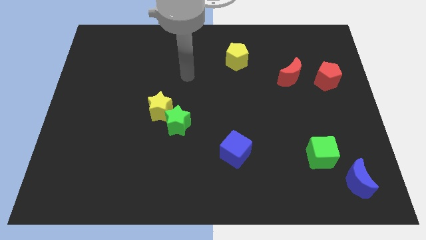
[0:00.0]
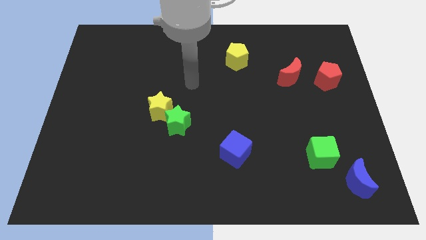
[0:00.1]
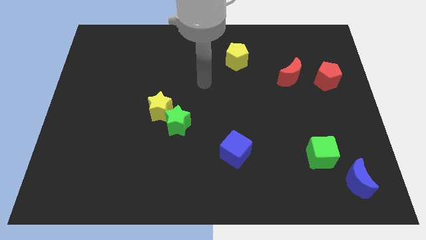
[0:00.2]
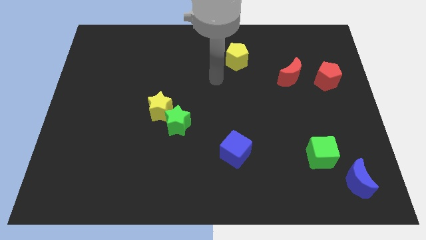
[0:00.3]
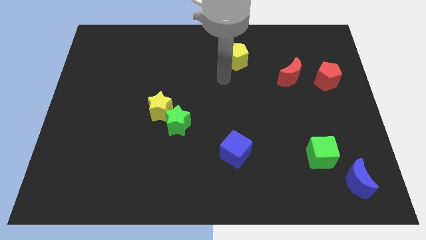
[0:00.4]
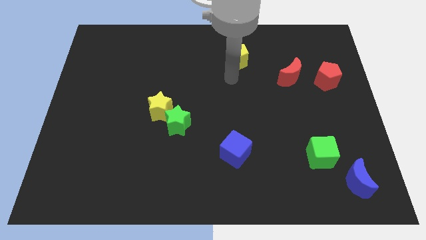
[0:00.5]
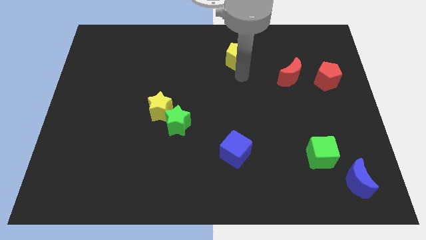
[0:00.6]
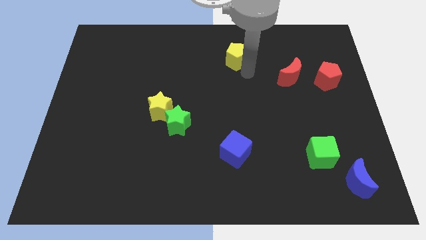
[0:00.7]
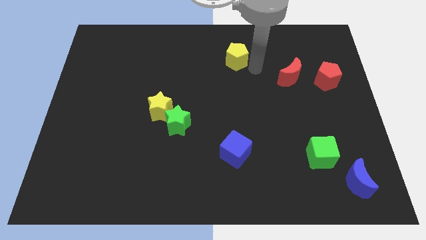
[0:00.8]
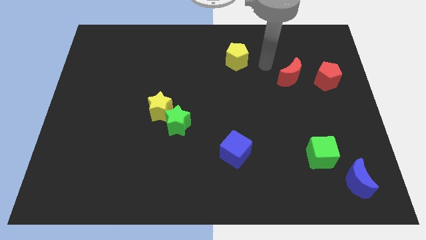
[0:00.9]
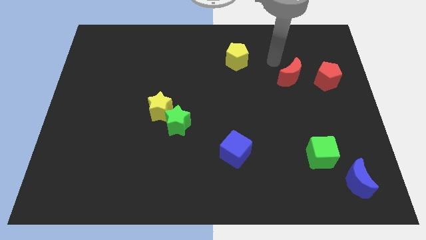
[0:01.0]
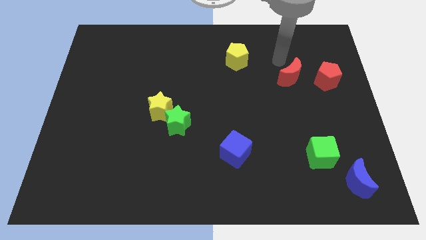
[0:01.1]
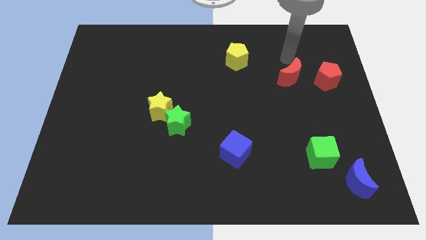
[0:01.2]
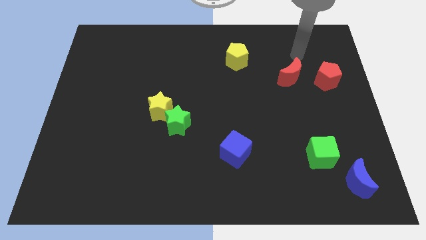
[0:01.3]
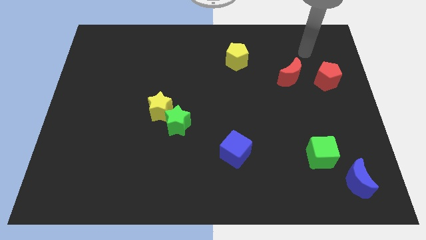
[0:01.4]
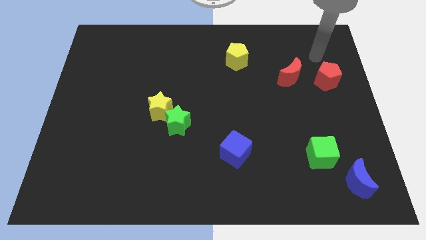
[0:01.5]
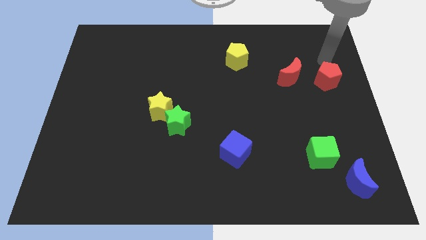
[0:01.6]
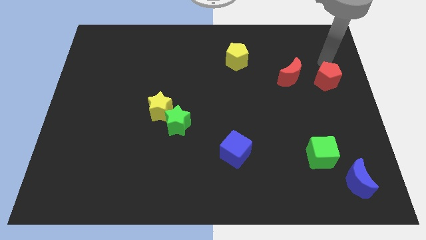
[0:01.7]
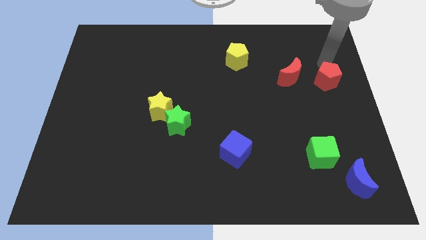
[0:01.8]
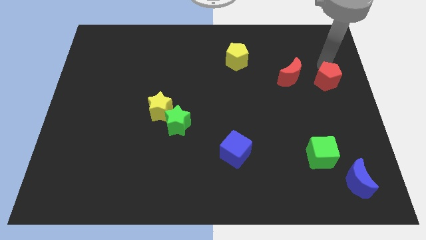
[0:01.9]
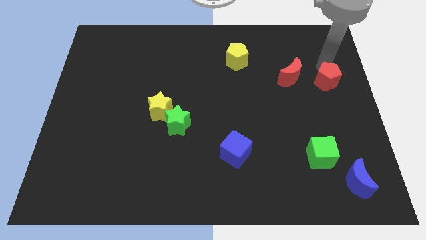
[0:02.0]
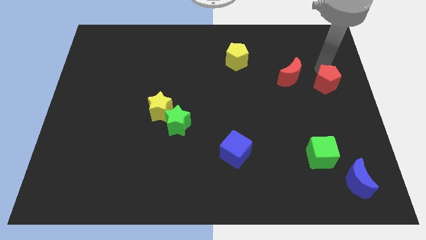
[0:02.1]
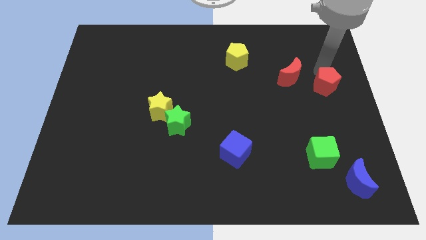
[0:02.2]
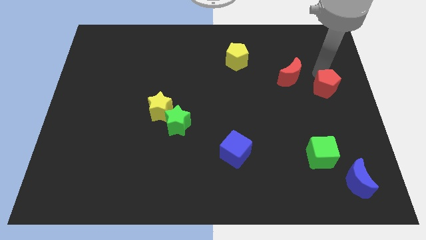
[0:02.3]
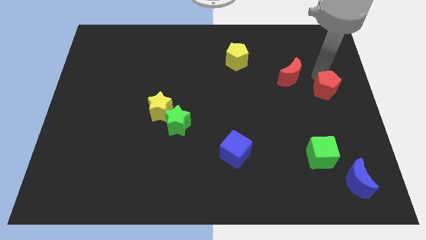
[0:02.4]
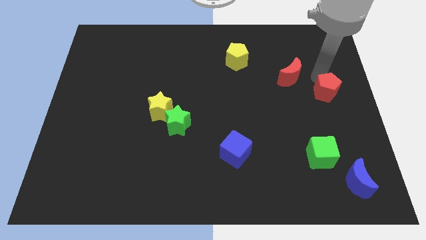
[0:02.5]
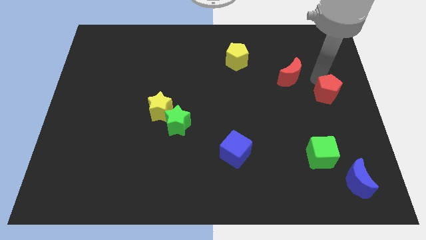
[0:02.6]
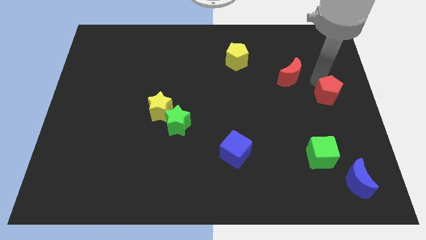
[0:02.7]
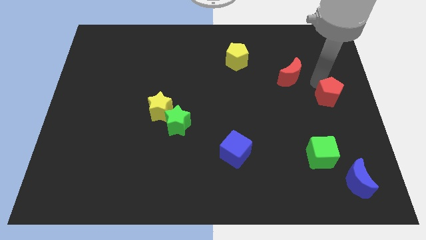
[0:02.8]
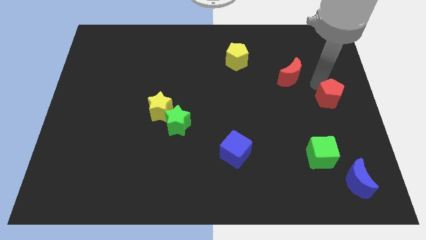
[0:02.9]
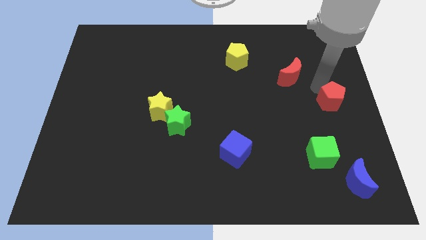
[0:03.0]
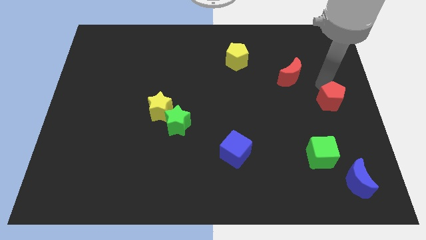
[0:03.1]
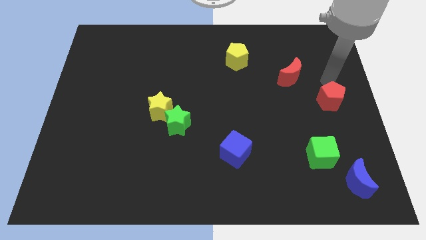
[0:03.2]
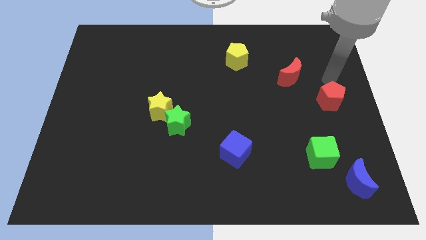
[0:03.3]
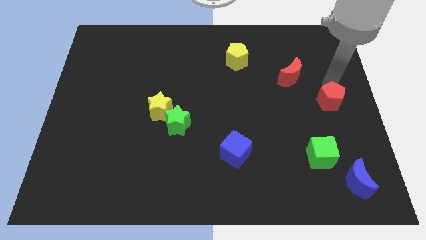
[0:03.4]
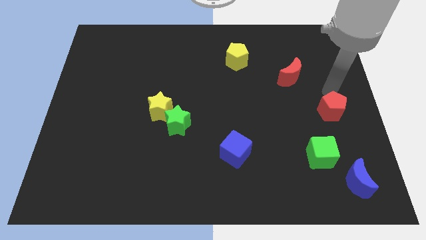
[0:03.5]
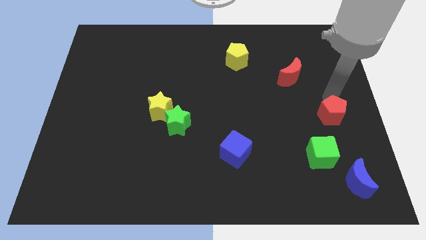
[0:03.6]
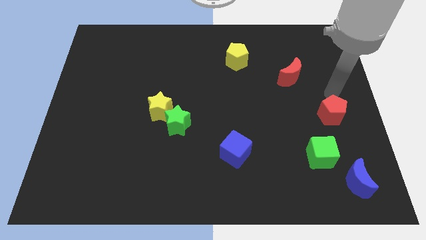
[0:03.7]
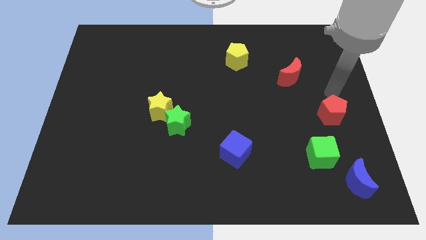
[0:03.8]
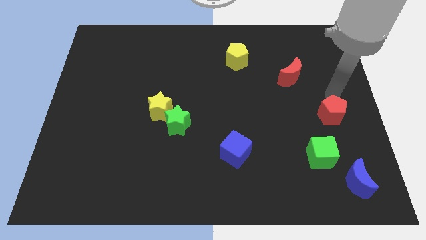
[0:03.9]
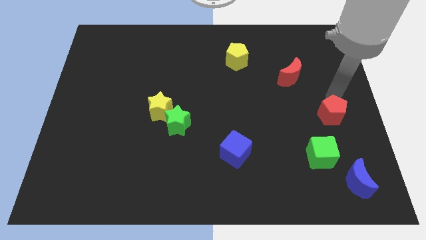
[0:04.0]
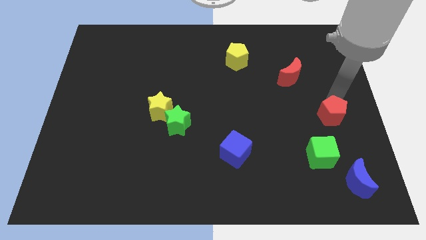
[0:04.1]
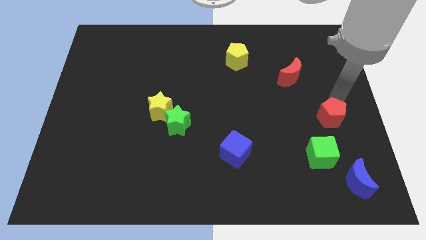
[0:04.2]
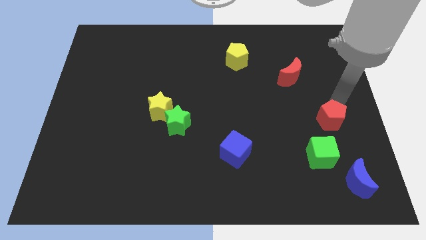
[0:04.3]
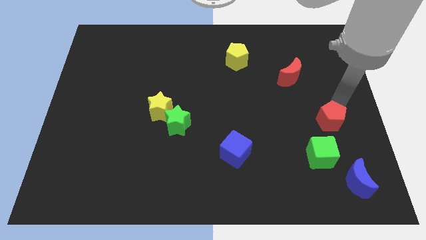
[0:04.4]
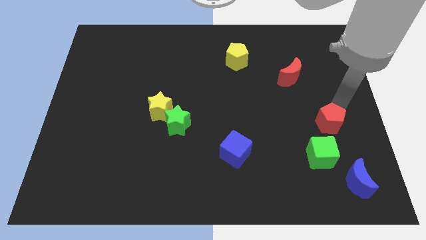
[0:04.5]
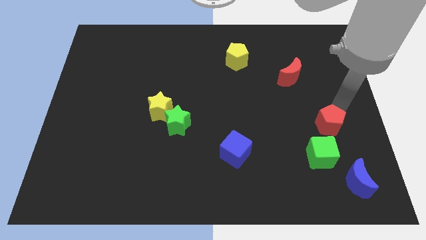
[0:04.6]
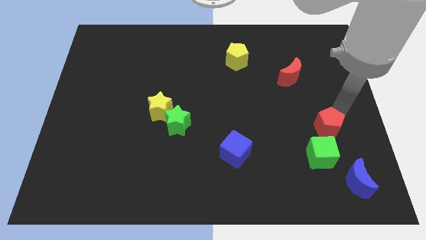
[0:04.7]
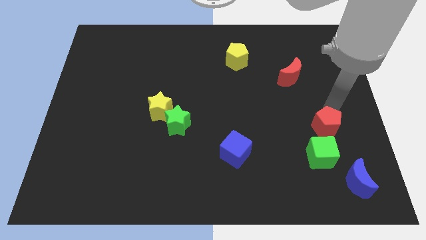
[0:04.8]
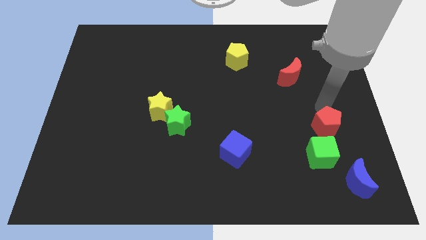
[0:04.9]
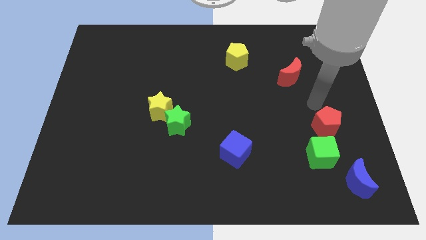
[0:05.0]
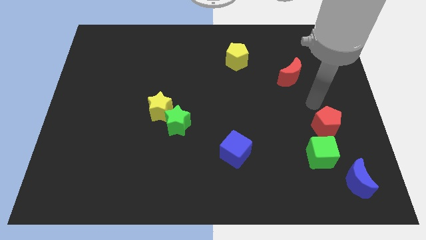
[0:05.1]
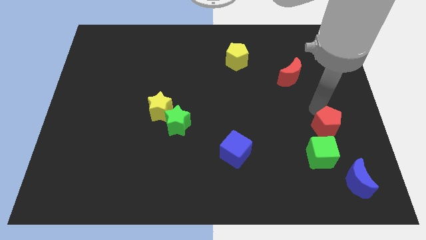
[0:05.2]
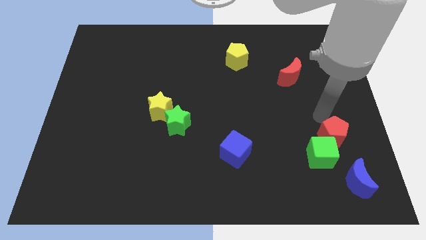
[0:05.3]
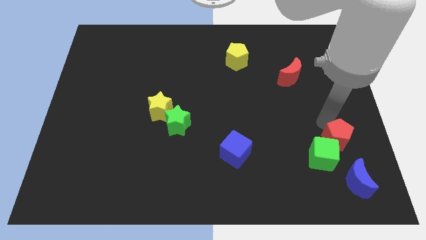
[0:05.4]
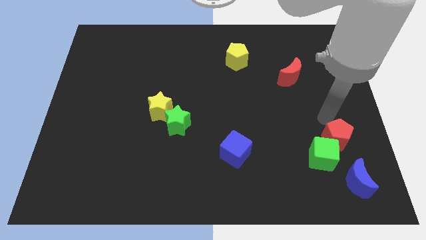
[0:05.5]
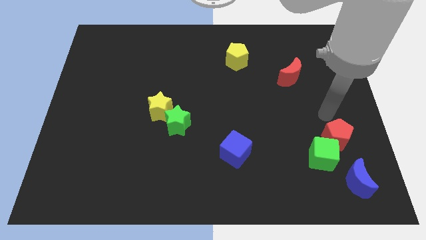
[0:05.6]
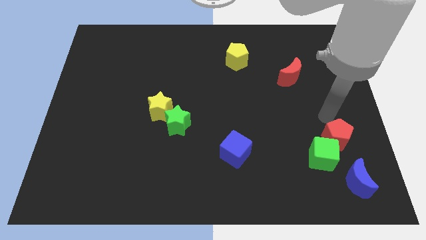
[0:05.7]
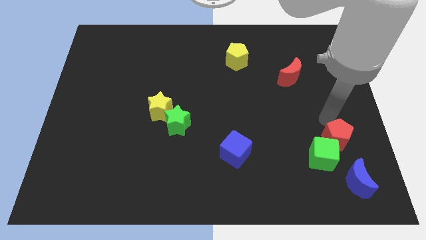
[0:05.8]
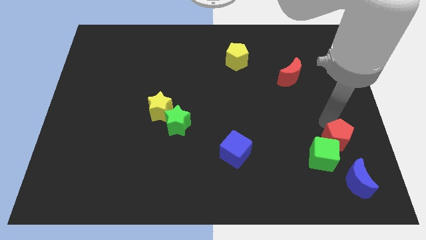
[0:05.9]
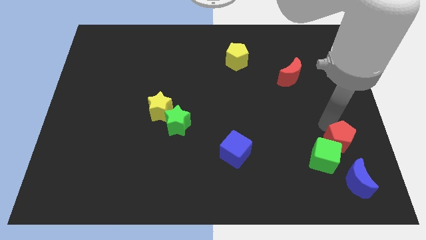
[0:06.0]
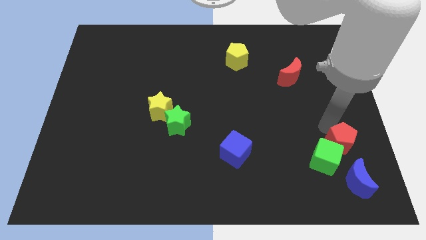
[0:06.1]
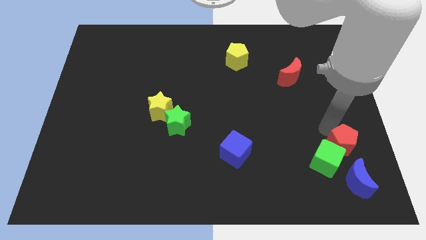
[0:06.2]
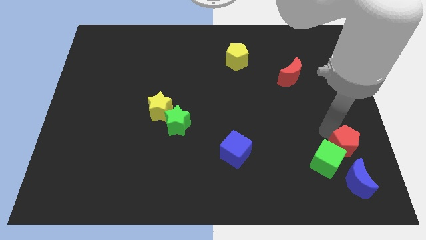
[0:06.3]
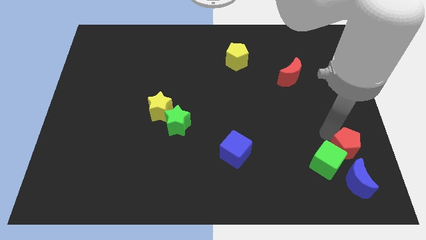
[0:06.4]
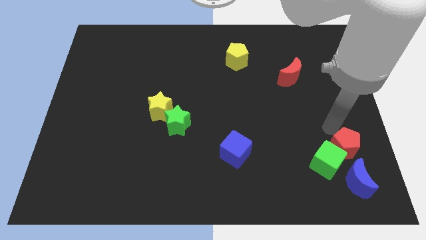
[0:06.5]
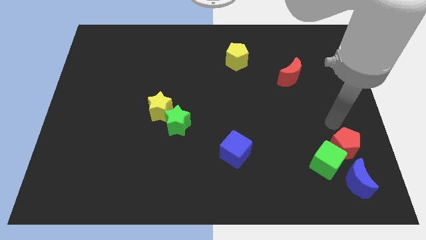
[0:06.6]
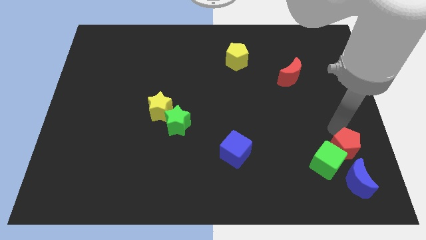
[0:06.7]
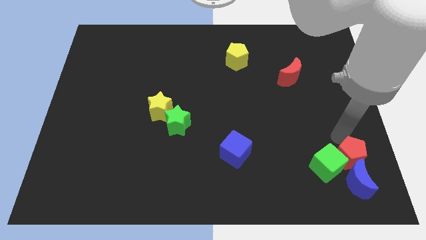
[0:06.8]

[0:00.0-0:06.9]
push the red pentagon next to the blue moon
